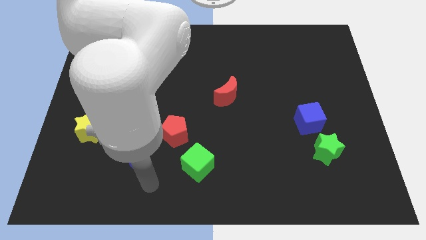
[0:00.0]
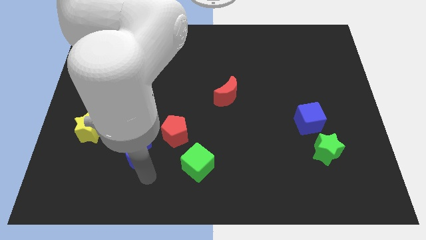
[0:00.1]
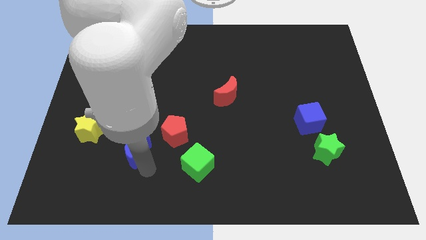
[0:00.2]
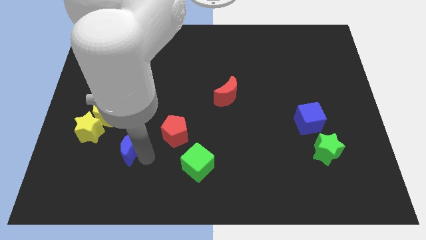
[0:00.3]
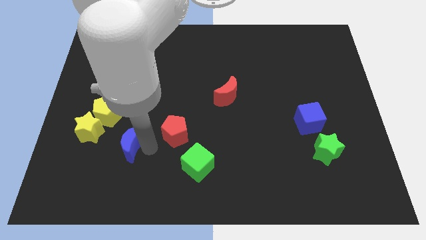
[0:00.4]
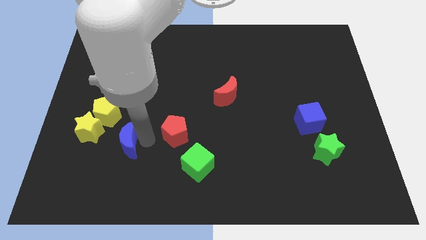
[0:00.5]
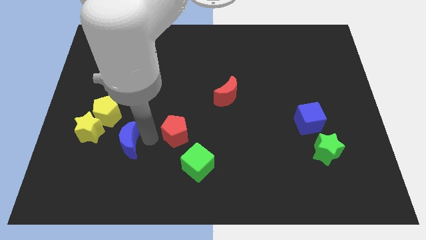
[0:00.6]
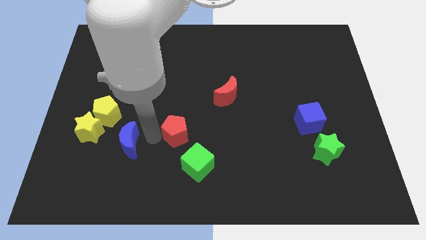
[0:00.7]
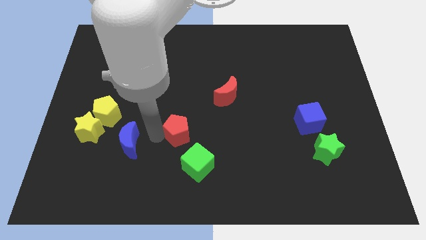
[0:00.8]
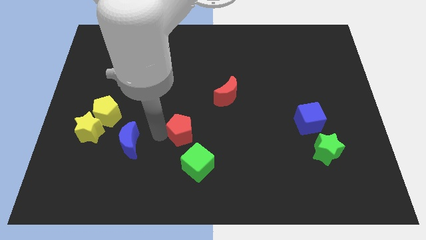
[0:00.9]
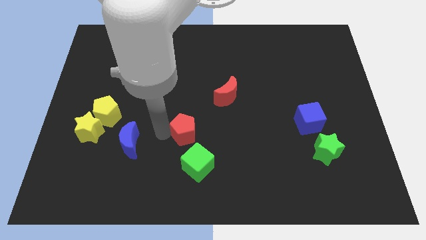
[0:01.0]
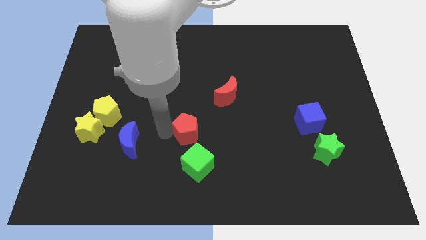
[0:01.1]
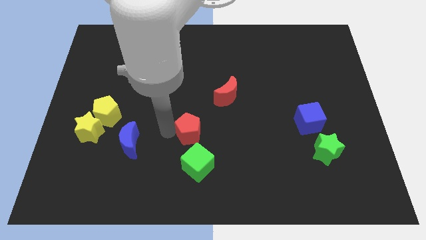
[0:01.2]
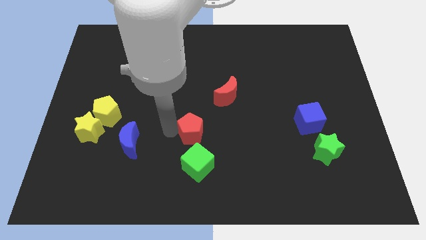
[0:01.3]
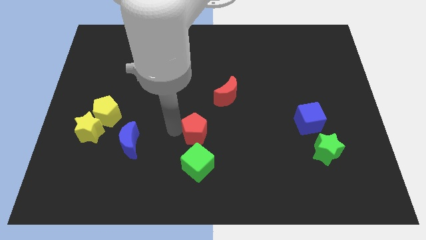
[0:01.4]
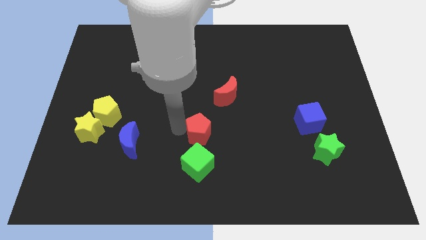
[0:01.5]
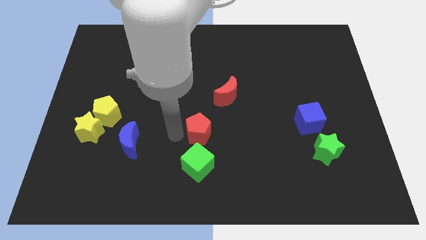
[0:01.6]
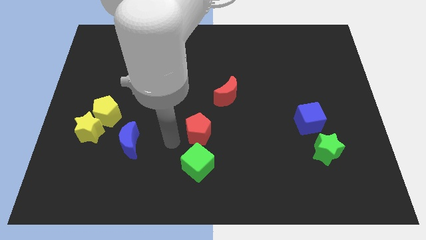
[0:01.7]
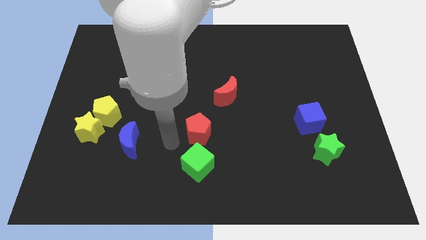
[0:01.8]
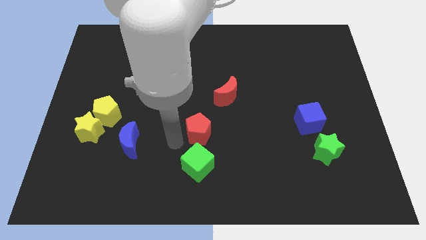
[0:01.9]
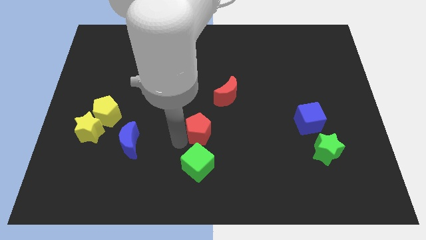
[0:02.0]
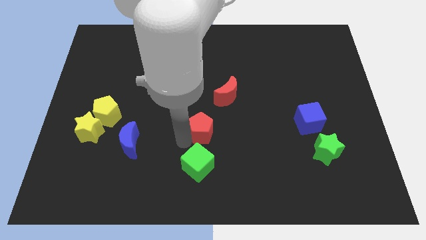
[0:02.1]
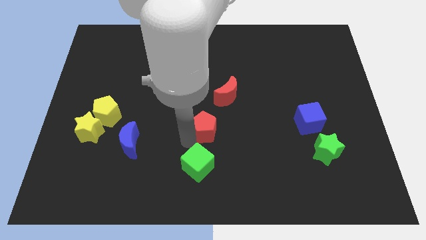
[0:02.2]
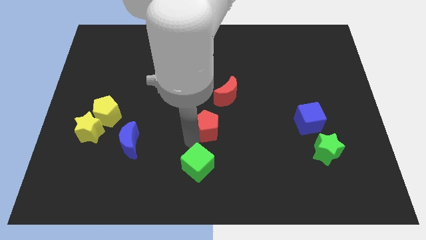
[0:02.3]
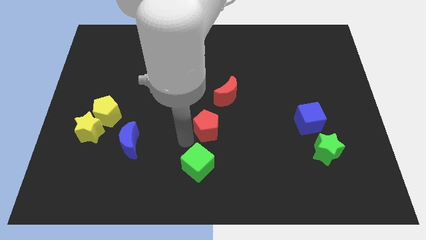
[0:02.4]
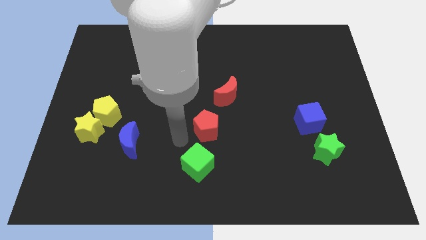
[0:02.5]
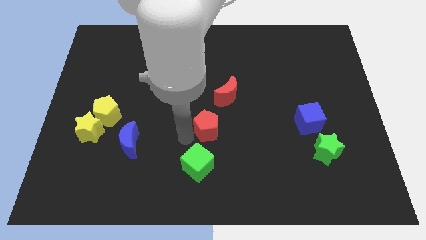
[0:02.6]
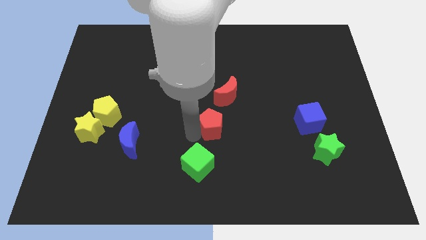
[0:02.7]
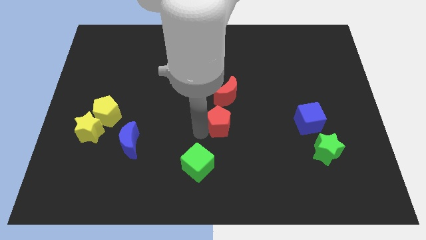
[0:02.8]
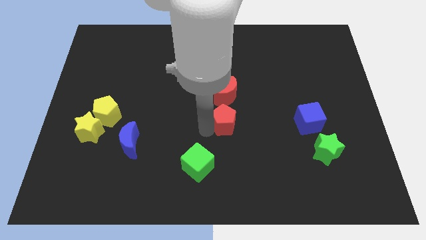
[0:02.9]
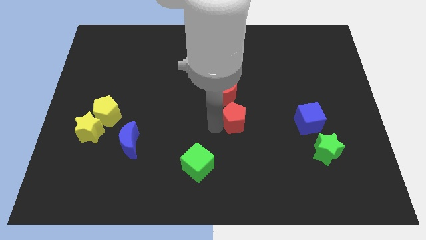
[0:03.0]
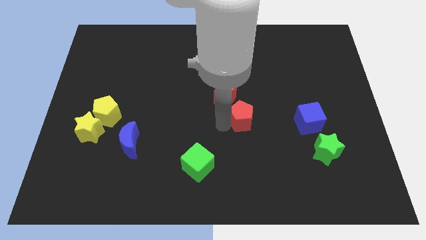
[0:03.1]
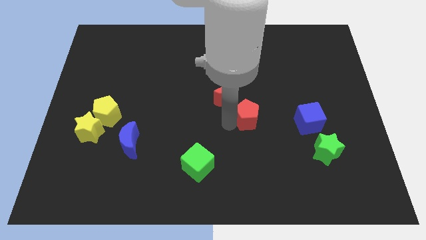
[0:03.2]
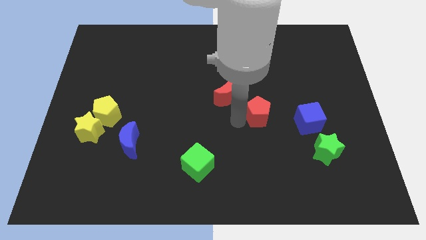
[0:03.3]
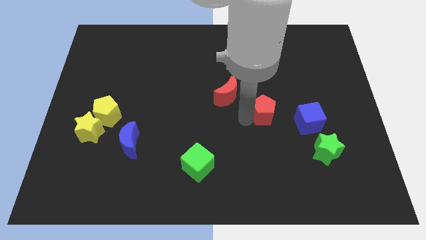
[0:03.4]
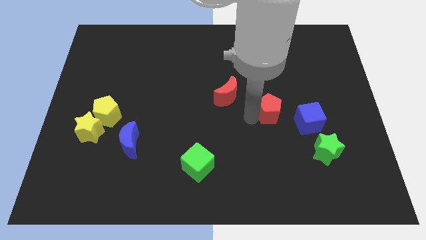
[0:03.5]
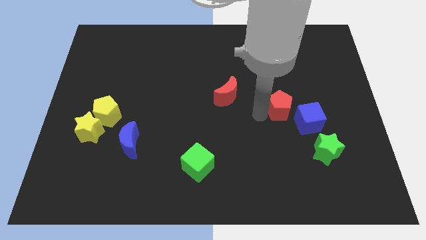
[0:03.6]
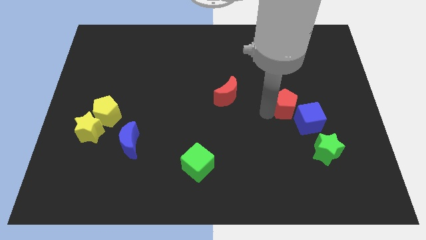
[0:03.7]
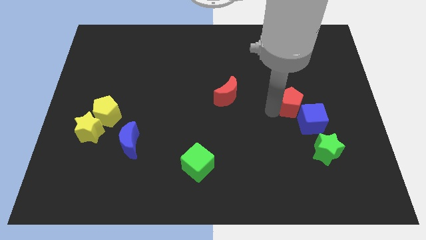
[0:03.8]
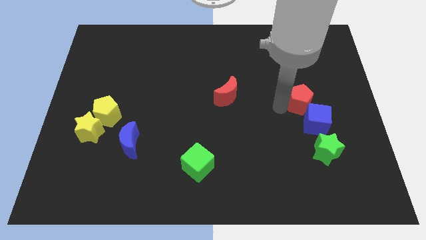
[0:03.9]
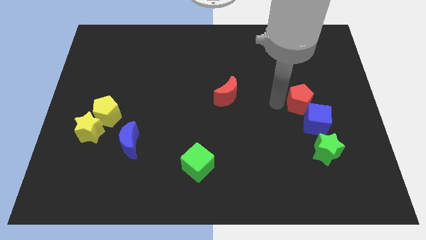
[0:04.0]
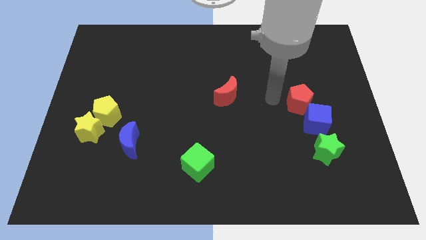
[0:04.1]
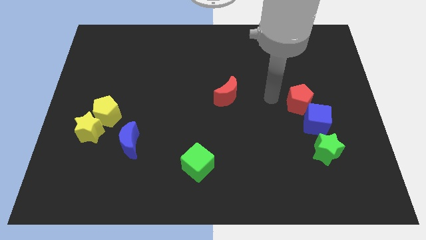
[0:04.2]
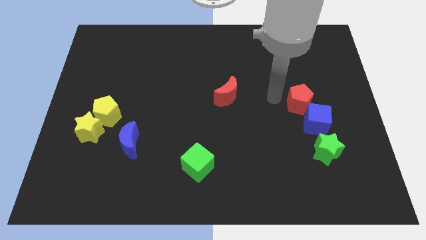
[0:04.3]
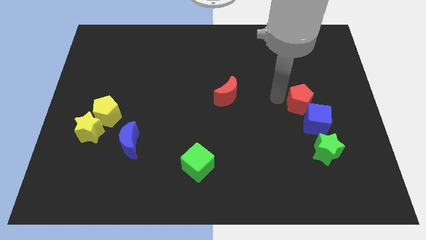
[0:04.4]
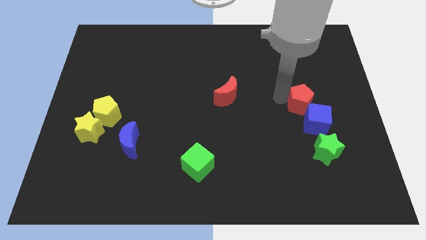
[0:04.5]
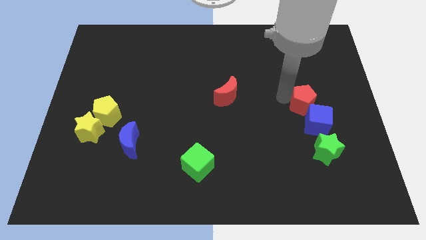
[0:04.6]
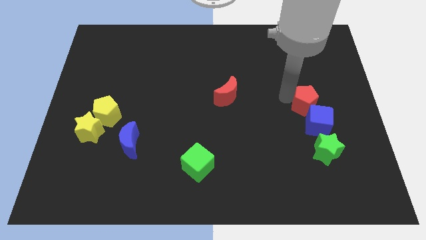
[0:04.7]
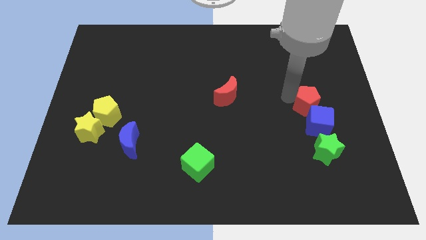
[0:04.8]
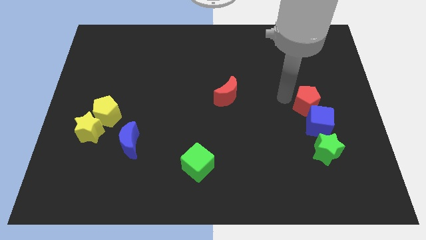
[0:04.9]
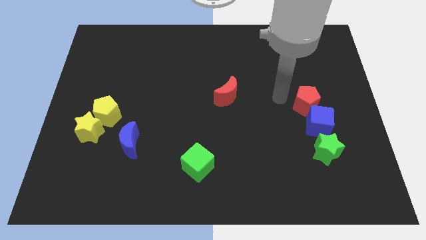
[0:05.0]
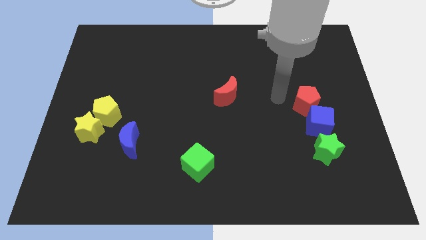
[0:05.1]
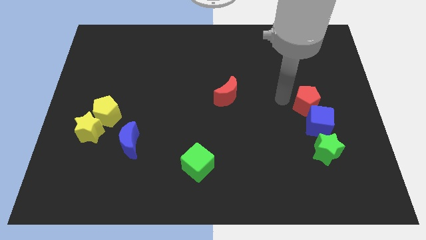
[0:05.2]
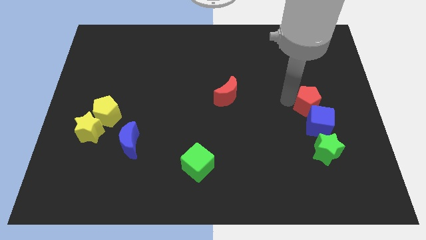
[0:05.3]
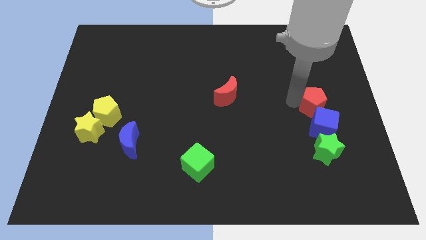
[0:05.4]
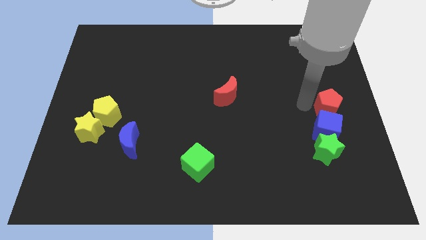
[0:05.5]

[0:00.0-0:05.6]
push the red pentagon to the right side of the board

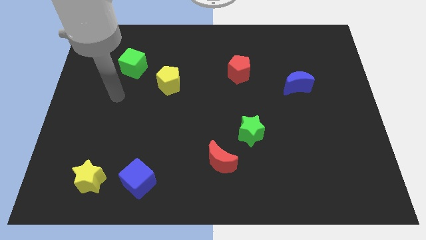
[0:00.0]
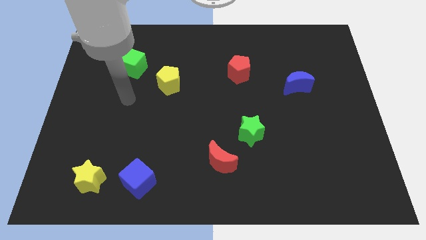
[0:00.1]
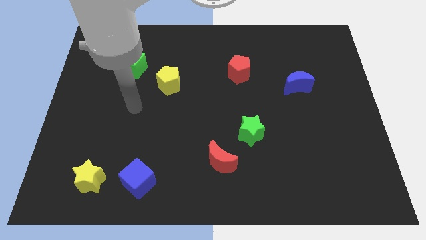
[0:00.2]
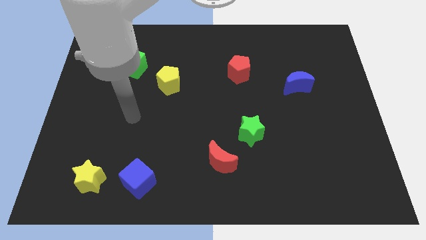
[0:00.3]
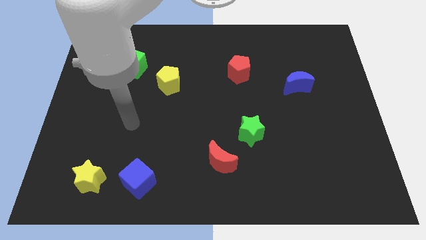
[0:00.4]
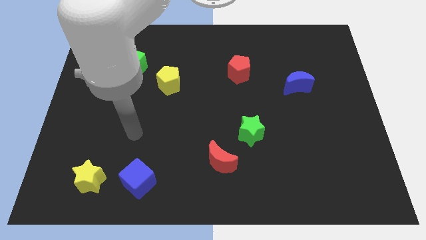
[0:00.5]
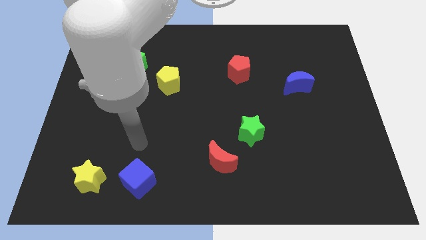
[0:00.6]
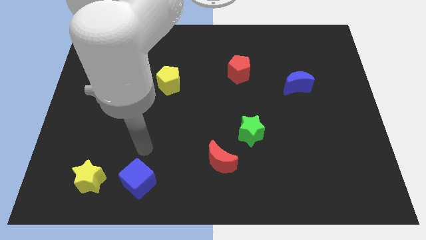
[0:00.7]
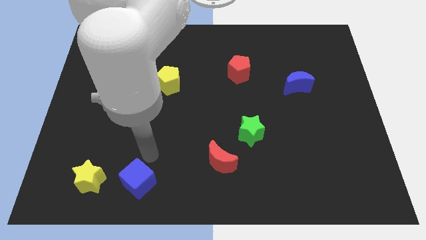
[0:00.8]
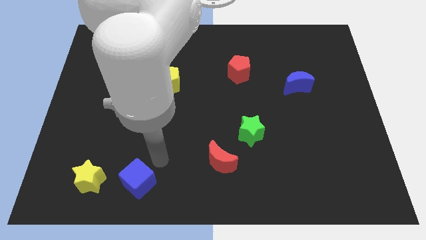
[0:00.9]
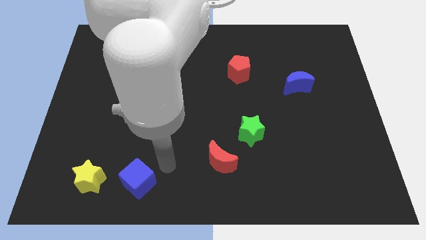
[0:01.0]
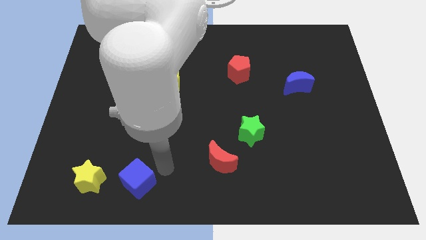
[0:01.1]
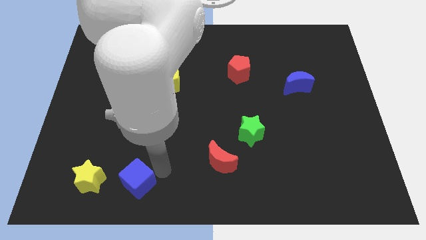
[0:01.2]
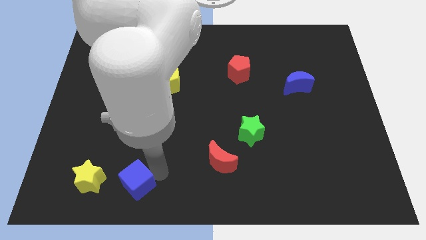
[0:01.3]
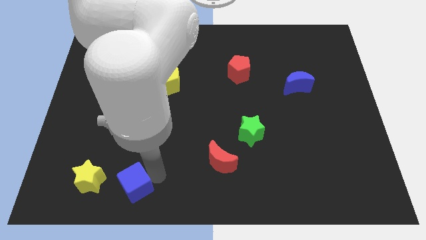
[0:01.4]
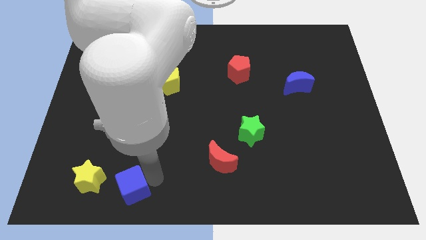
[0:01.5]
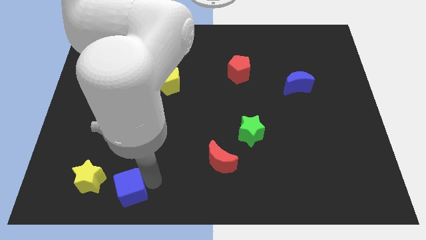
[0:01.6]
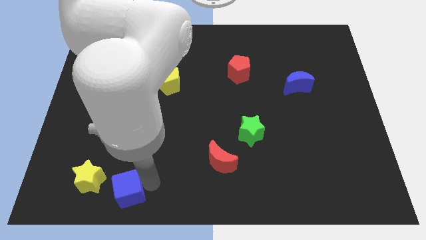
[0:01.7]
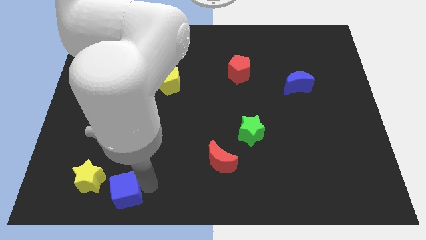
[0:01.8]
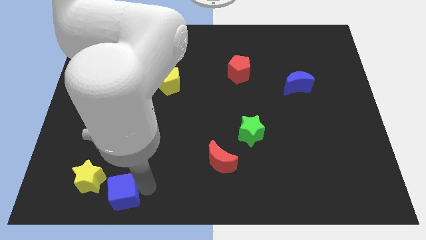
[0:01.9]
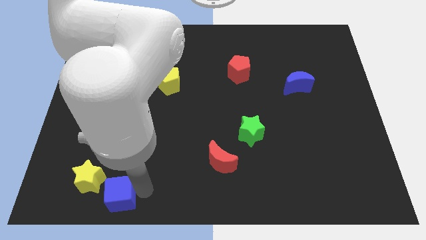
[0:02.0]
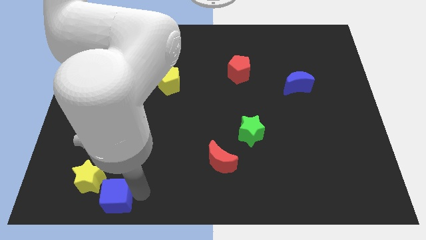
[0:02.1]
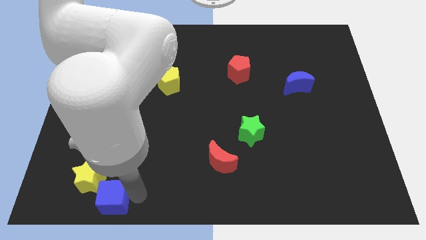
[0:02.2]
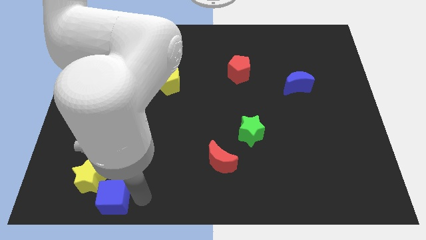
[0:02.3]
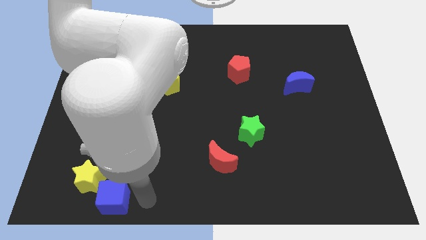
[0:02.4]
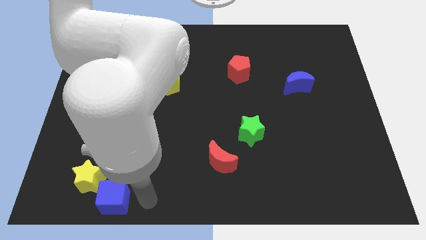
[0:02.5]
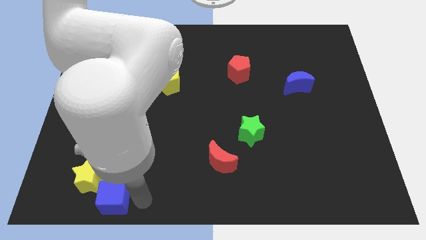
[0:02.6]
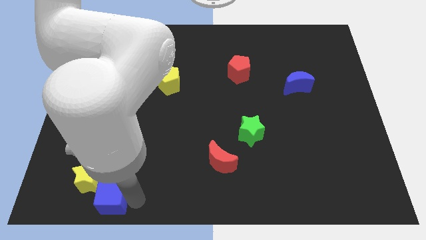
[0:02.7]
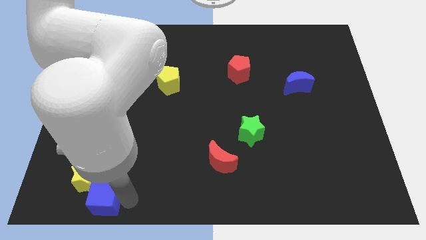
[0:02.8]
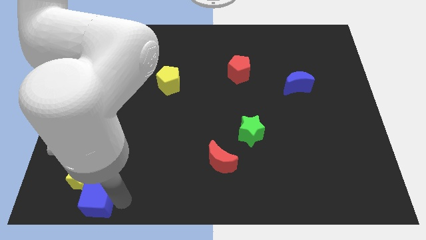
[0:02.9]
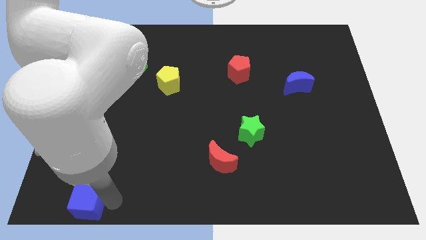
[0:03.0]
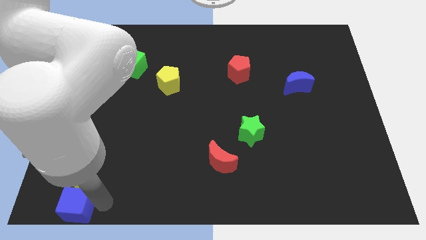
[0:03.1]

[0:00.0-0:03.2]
move the blue cube to the bottom left of the board
